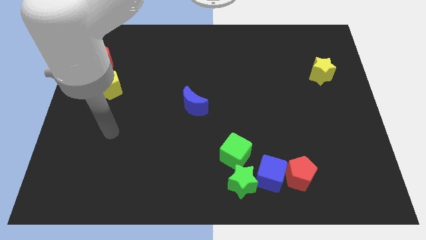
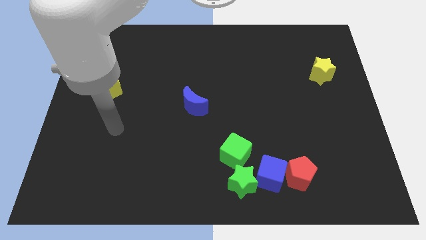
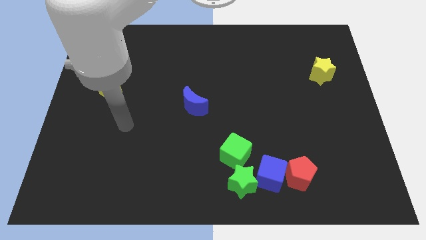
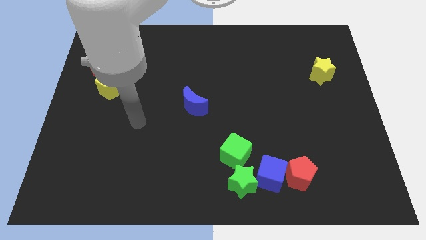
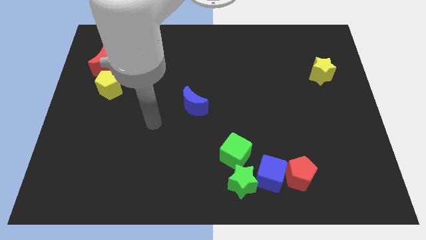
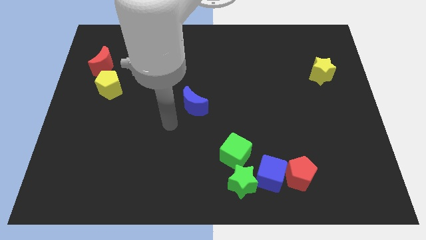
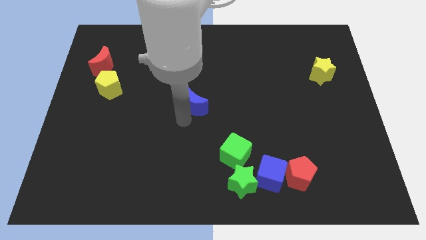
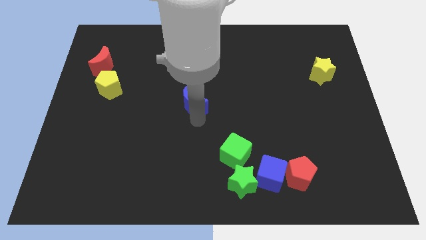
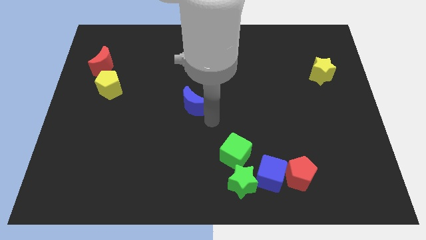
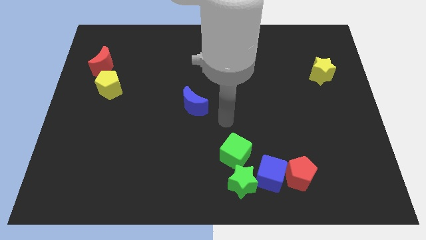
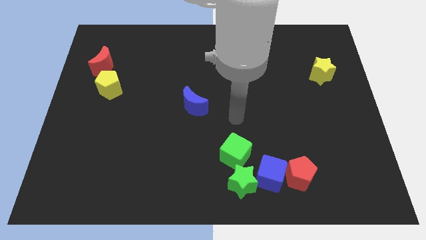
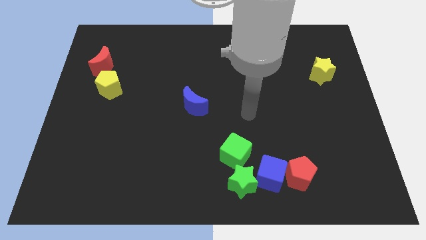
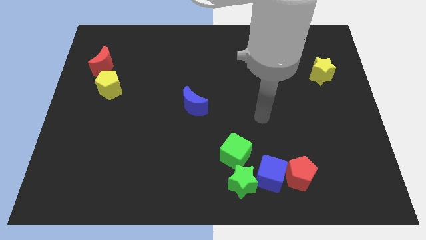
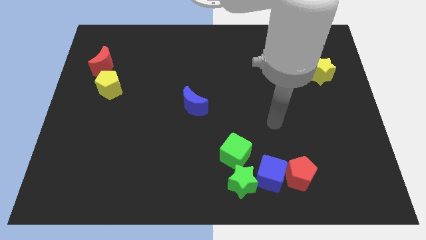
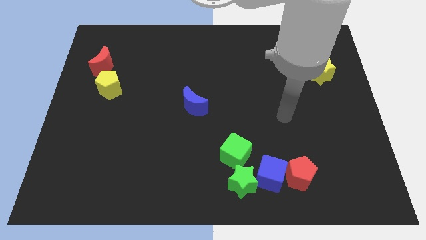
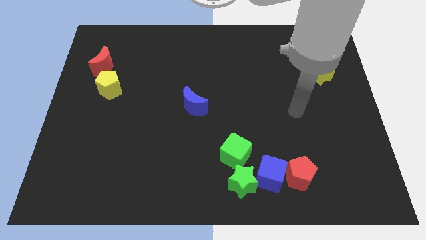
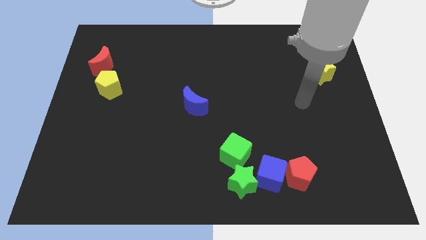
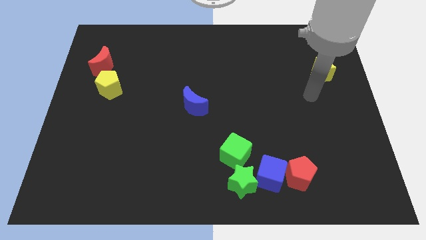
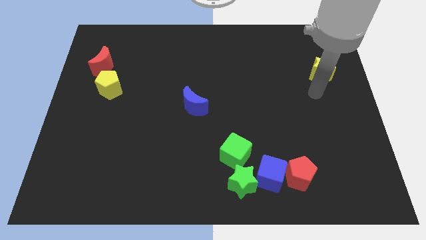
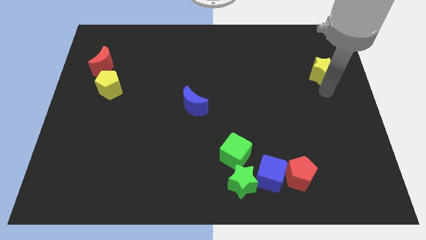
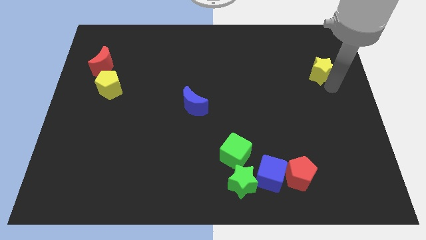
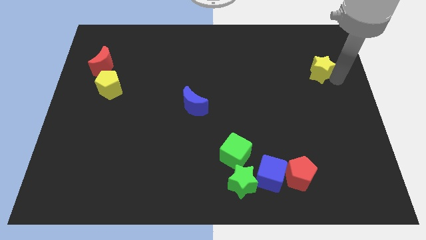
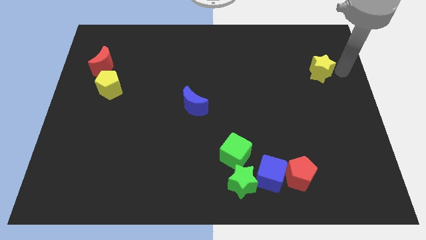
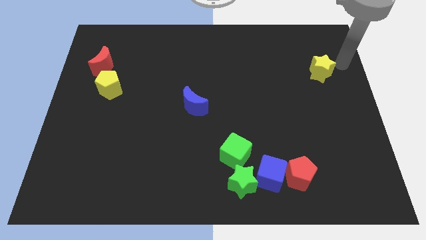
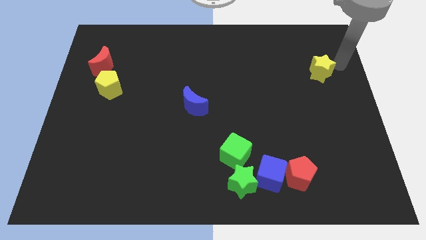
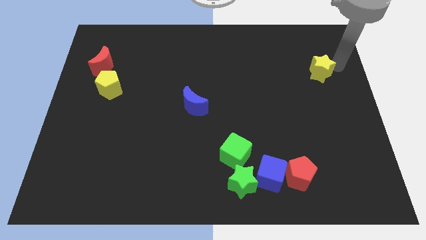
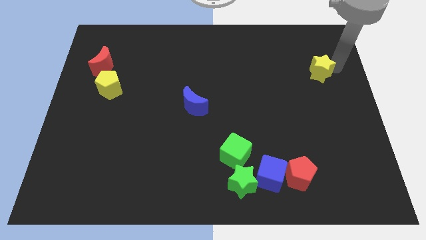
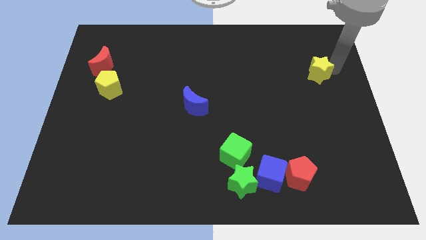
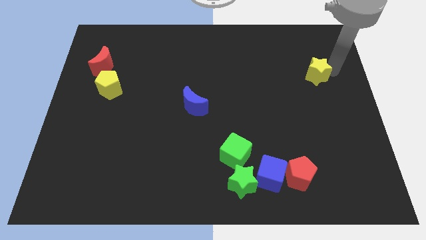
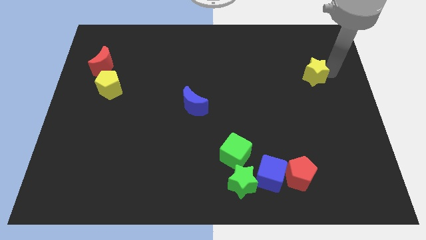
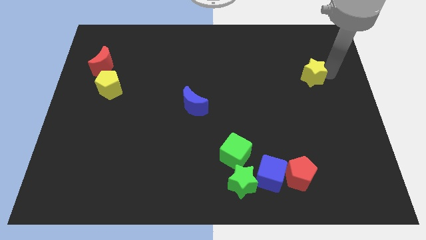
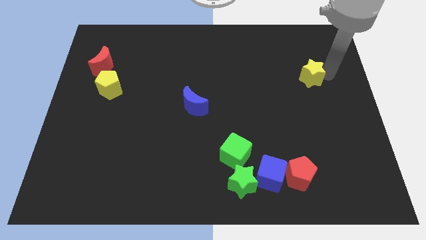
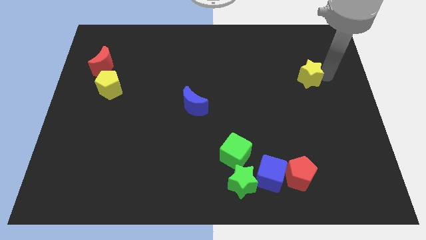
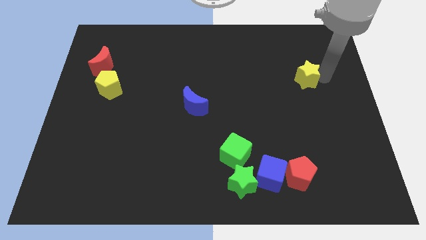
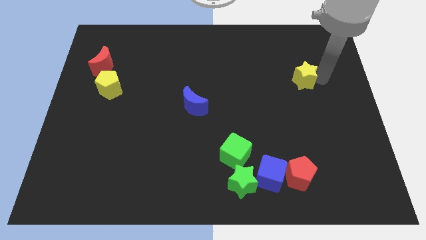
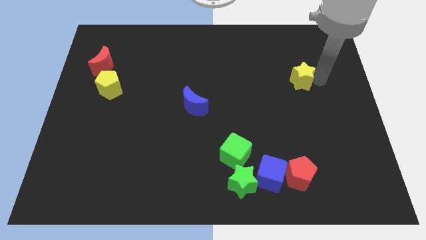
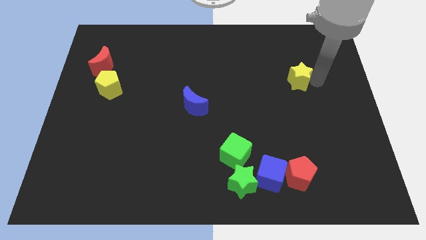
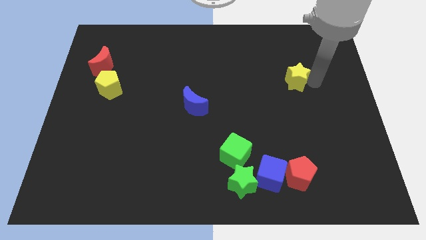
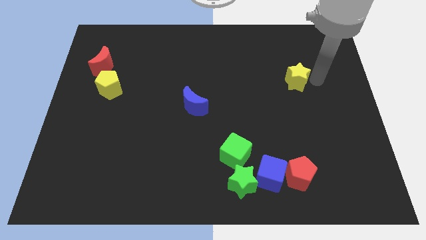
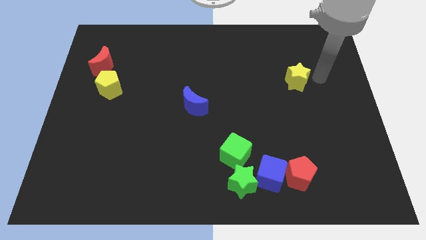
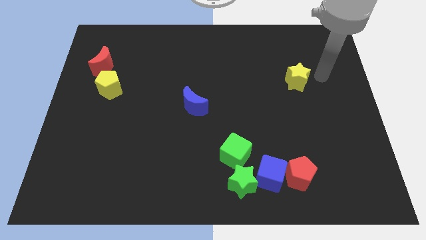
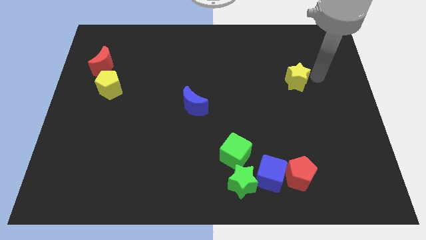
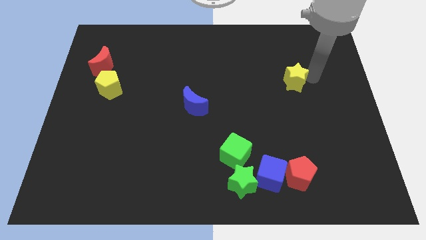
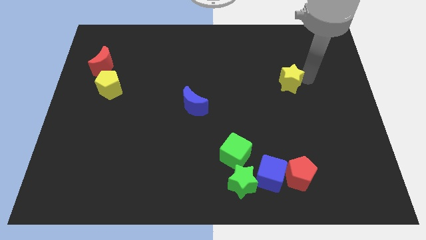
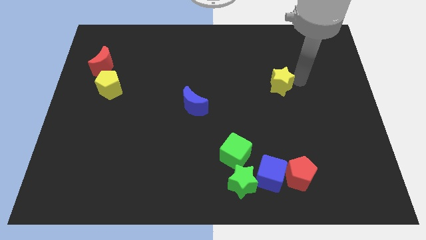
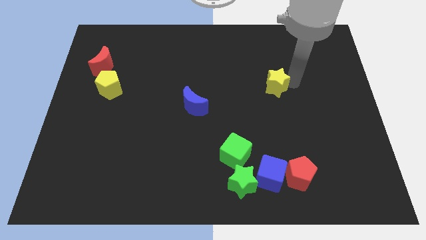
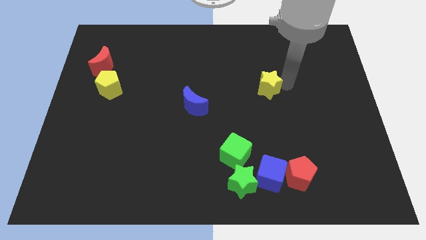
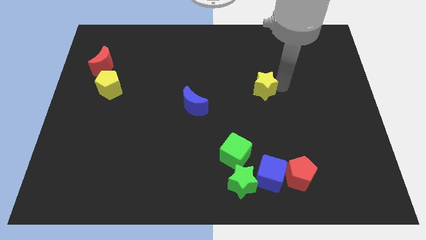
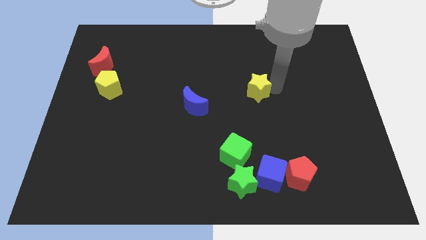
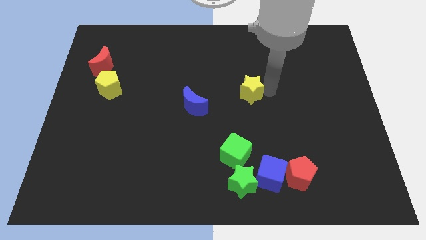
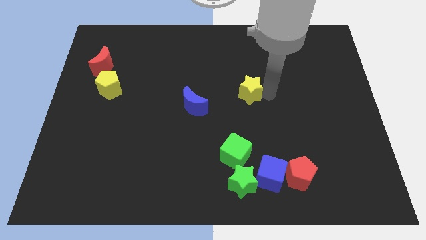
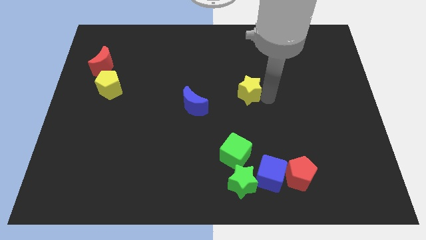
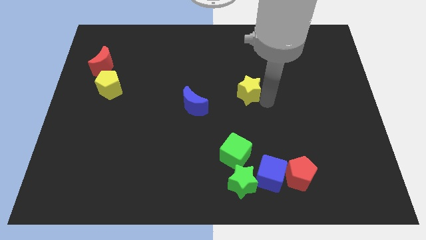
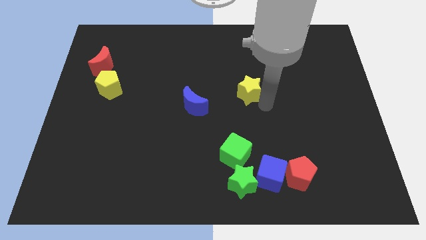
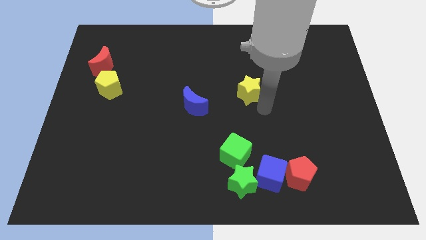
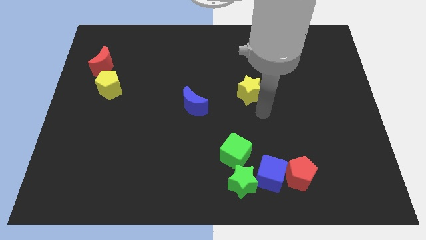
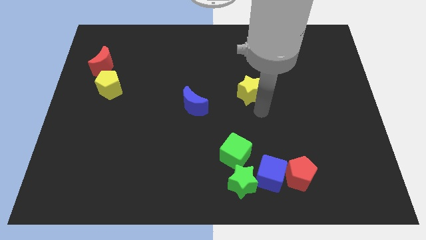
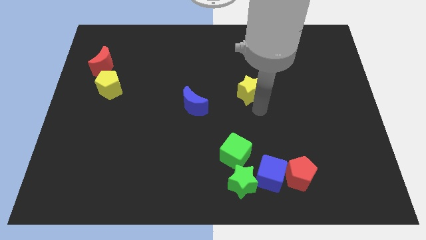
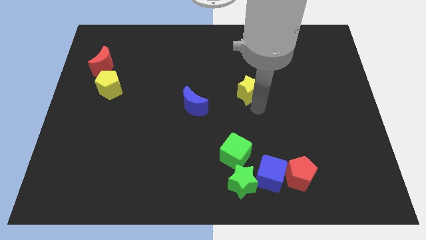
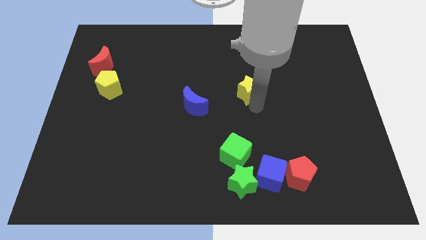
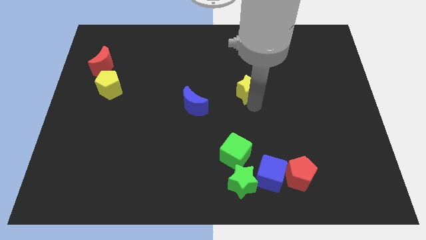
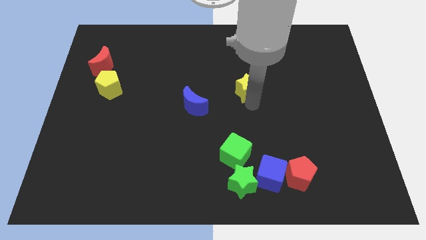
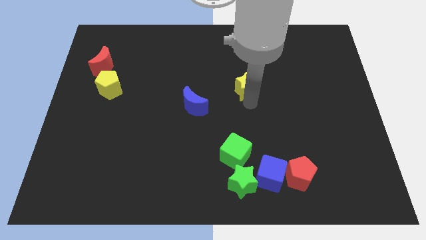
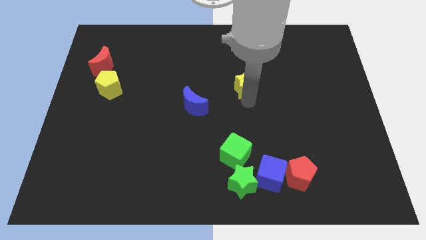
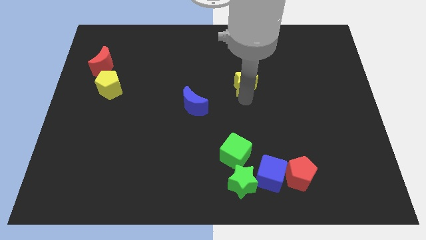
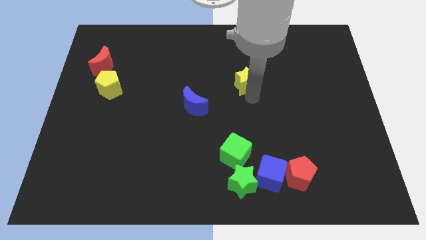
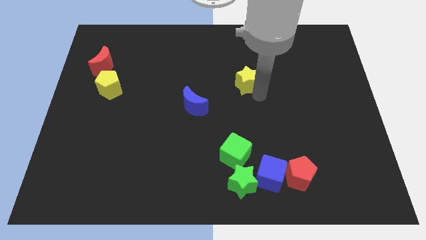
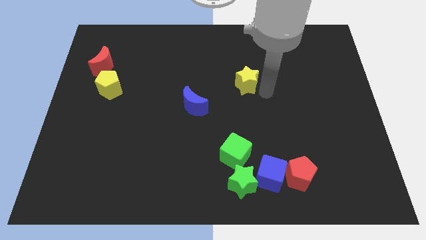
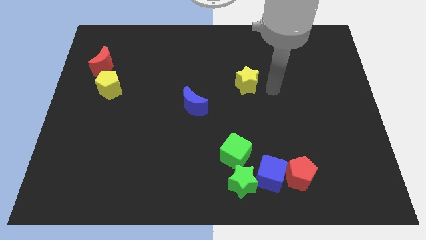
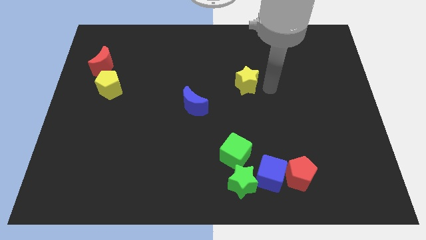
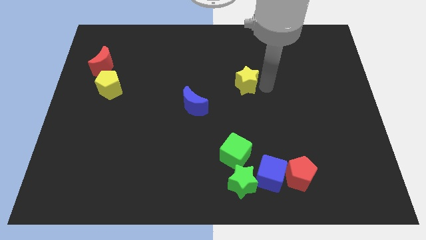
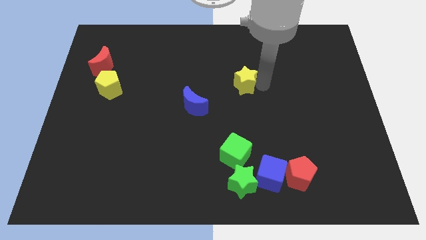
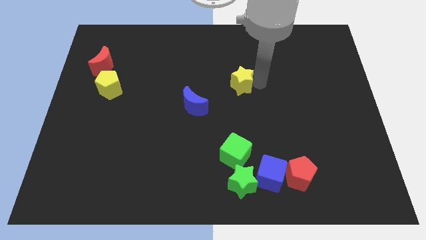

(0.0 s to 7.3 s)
move the yellow star to the left

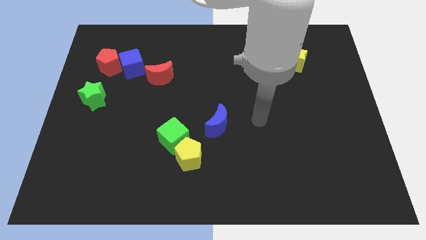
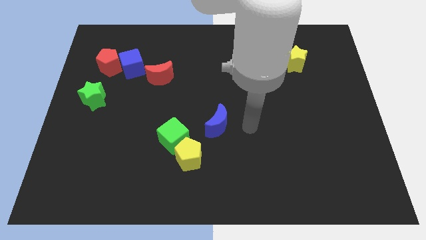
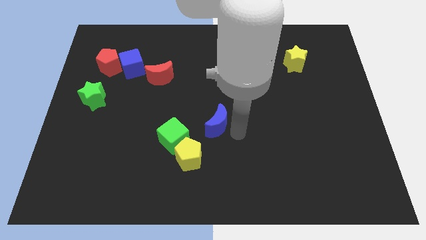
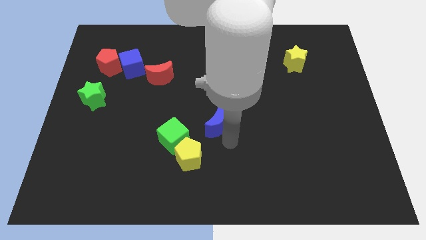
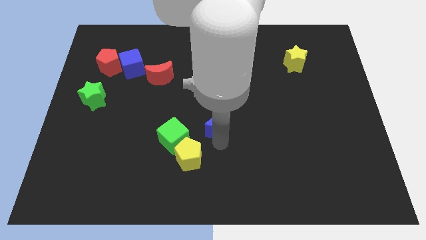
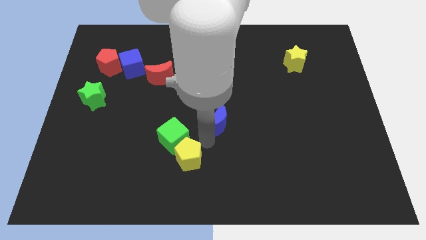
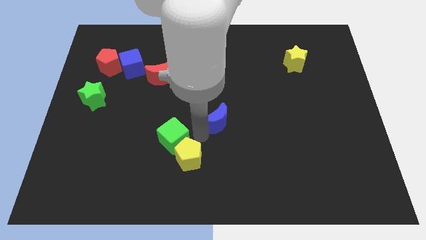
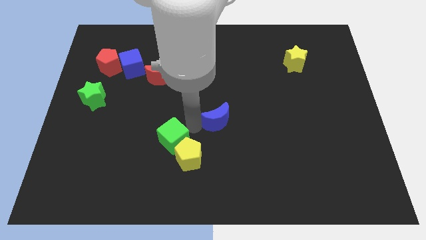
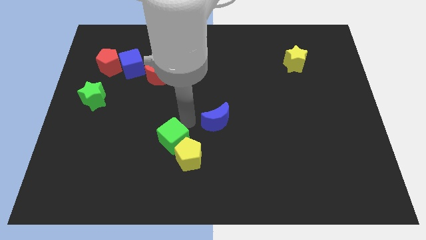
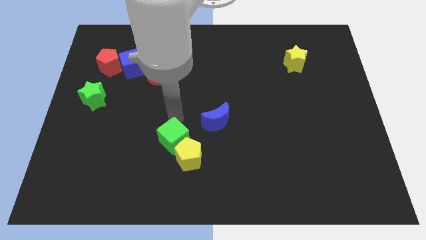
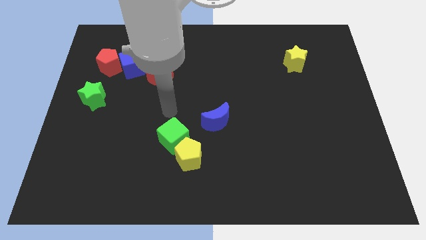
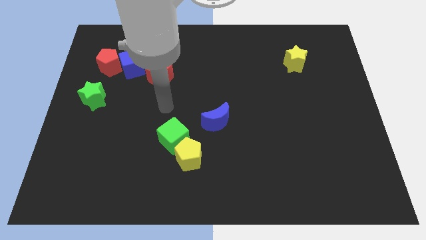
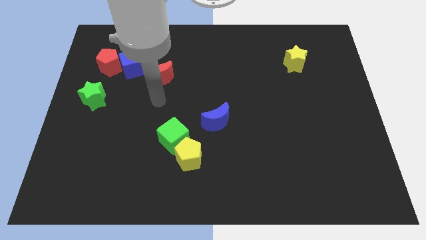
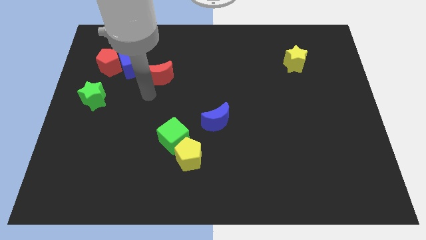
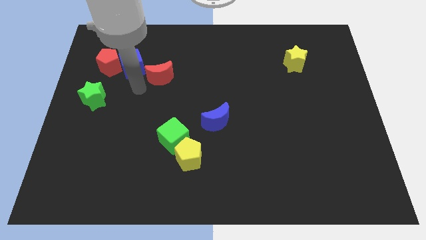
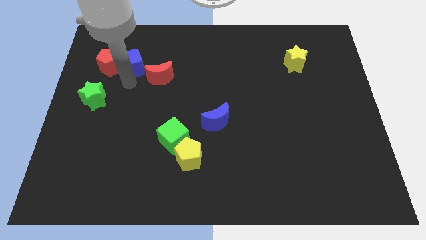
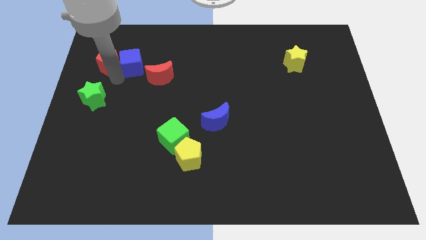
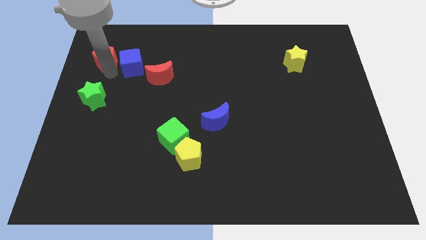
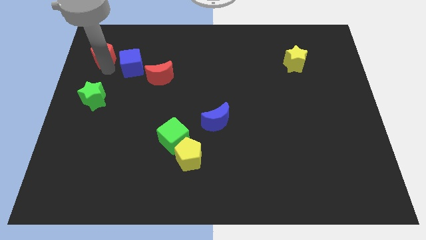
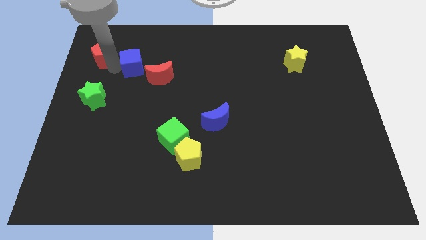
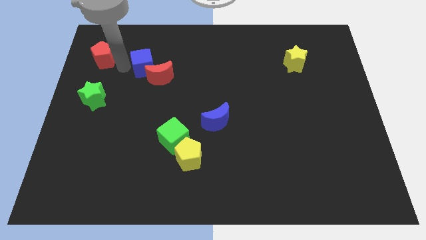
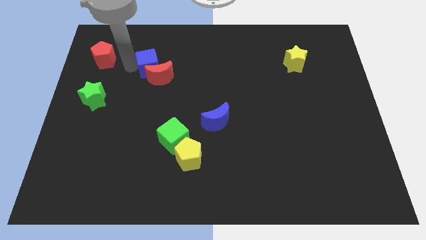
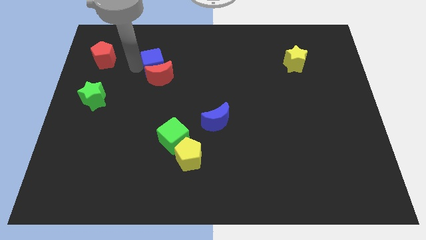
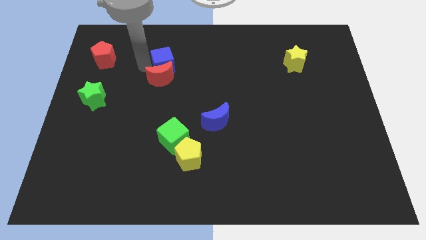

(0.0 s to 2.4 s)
move the blue cube to the right somewhat
